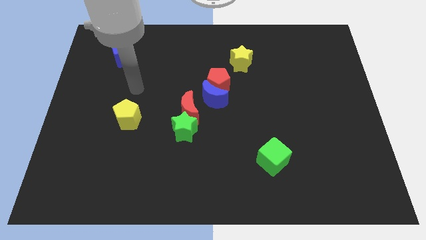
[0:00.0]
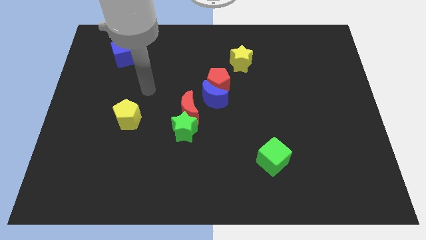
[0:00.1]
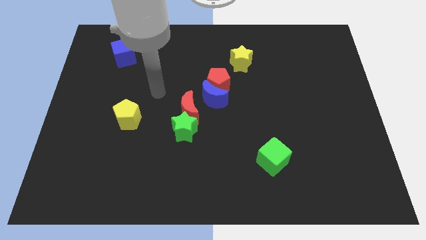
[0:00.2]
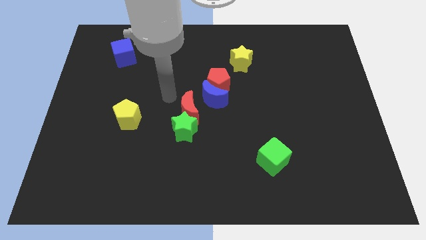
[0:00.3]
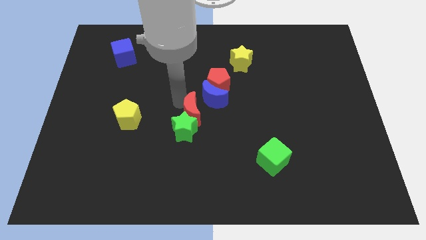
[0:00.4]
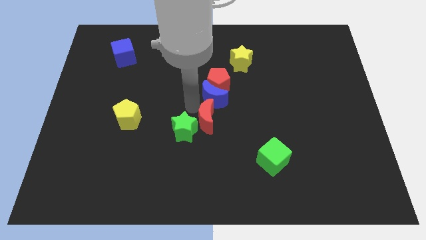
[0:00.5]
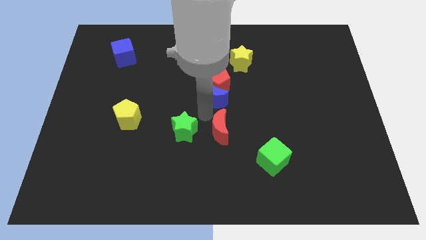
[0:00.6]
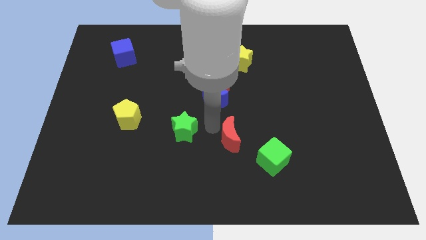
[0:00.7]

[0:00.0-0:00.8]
pull the green star apart from the red moon

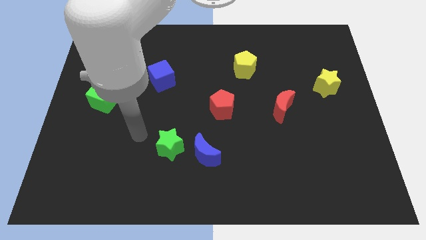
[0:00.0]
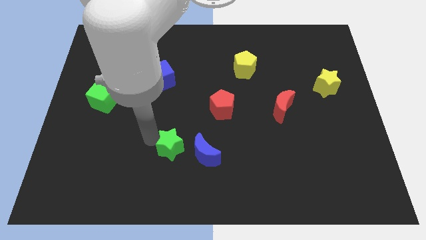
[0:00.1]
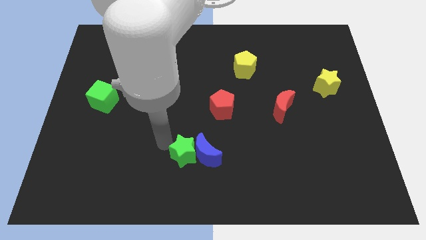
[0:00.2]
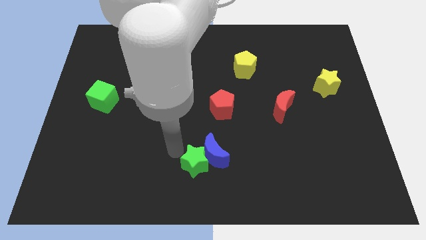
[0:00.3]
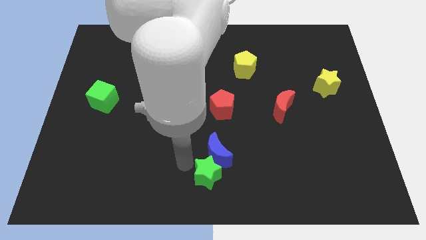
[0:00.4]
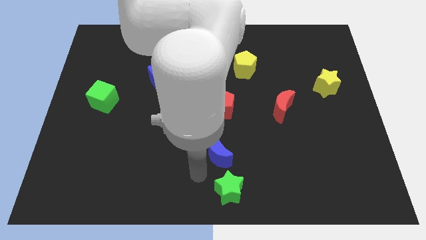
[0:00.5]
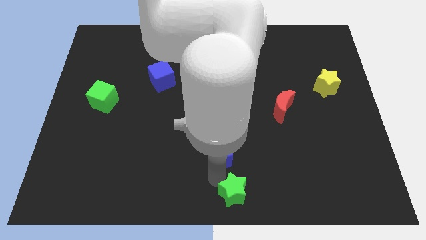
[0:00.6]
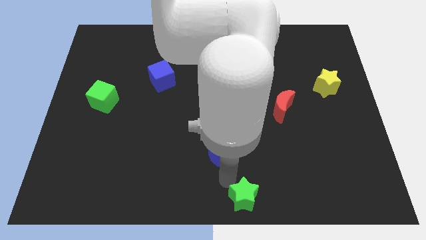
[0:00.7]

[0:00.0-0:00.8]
pull the blue moon apart from the green star

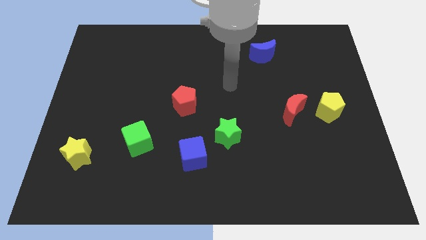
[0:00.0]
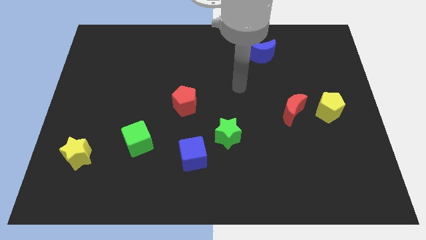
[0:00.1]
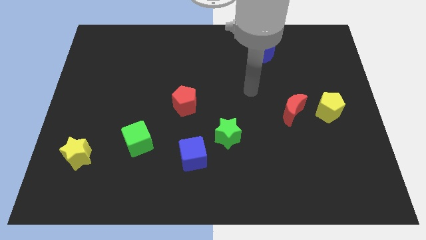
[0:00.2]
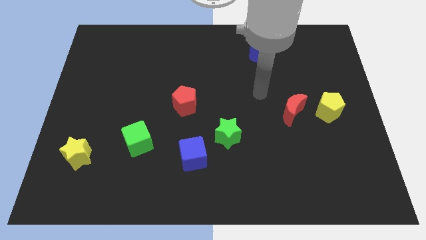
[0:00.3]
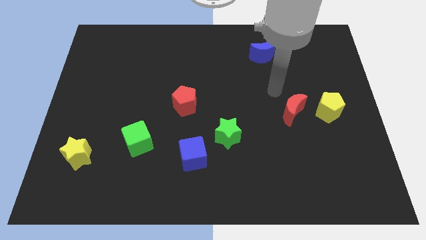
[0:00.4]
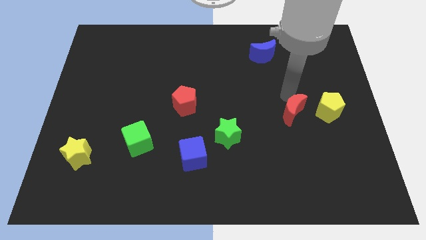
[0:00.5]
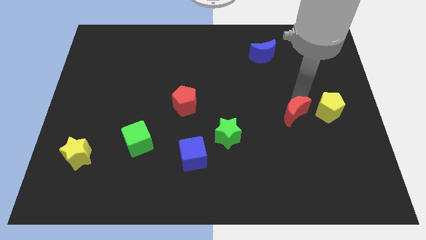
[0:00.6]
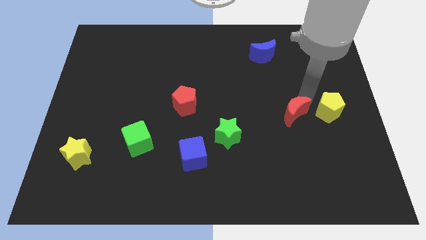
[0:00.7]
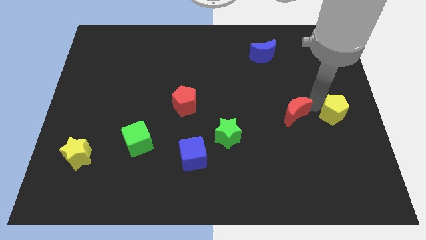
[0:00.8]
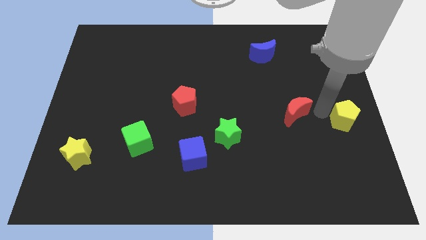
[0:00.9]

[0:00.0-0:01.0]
move the red moon away from the yellow pentagon

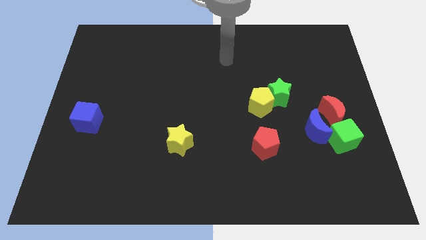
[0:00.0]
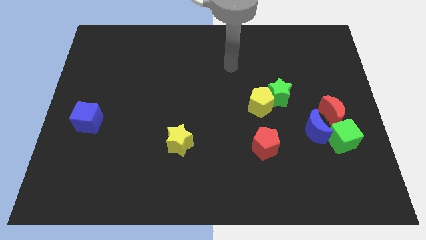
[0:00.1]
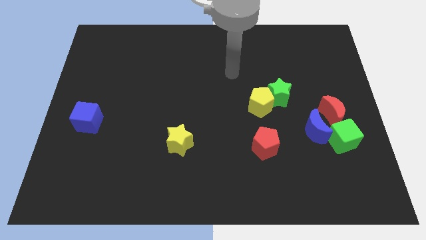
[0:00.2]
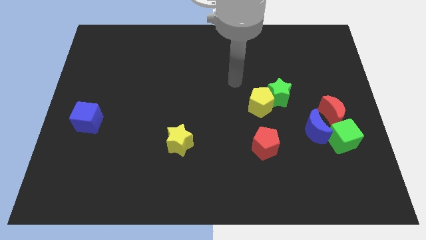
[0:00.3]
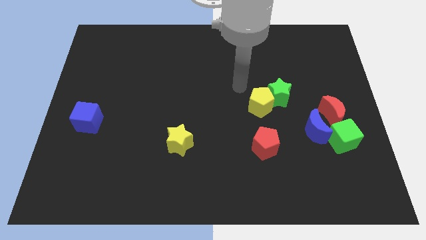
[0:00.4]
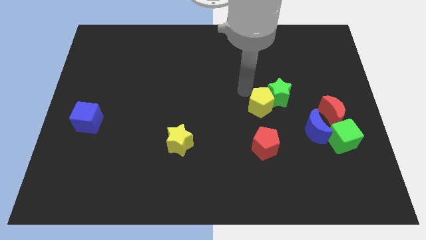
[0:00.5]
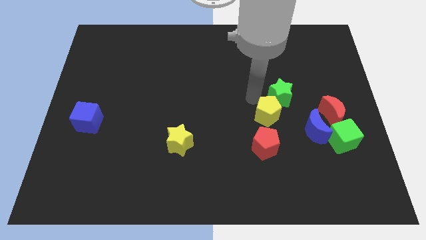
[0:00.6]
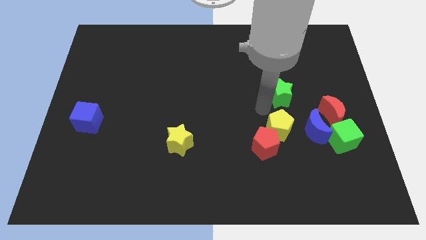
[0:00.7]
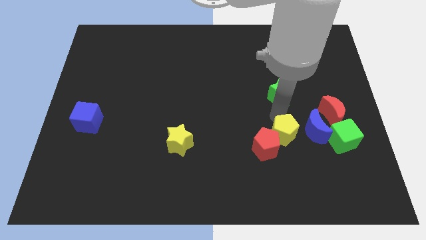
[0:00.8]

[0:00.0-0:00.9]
separate the green star from the yellow pentagon

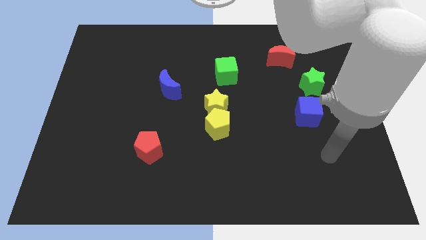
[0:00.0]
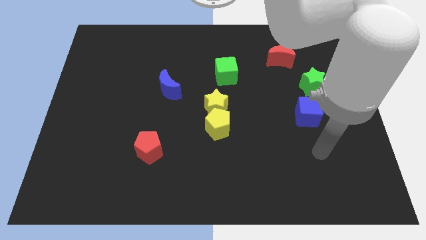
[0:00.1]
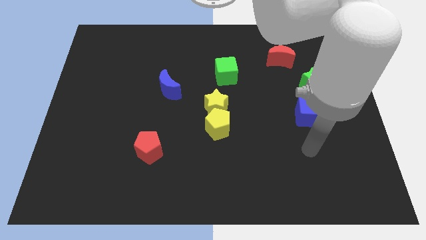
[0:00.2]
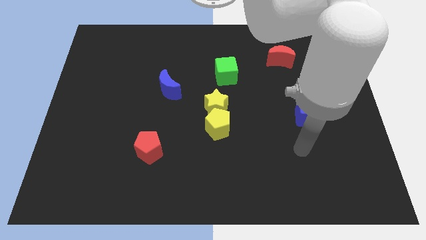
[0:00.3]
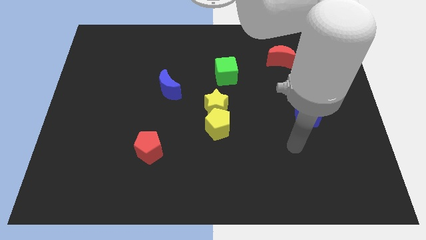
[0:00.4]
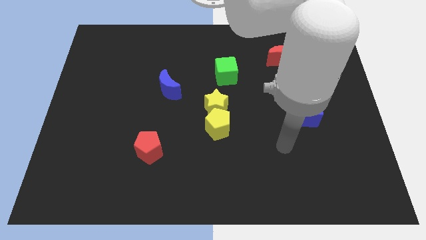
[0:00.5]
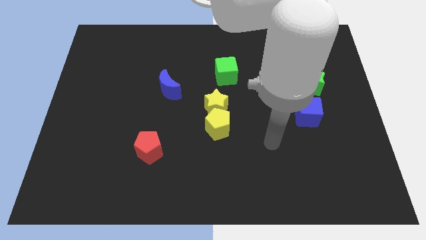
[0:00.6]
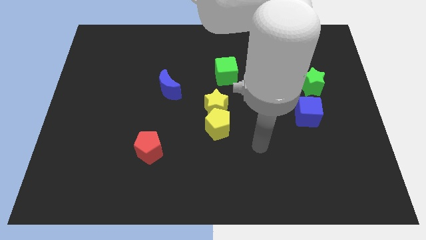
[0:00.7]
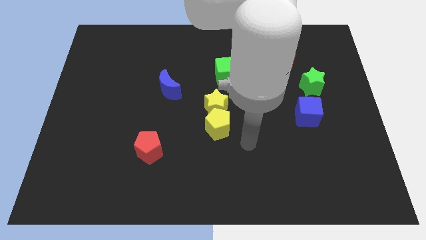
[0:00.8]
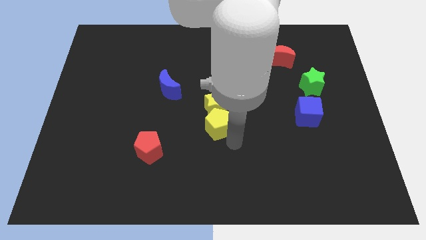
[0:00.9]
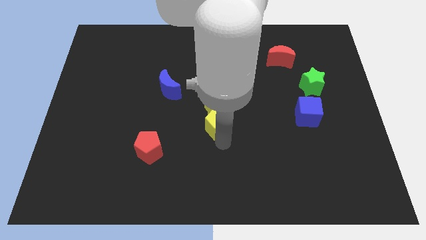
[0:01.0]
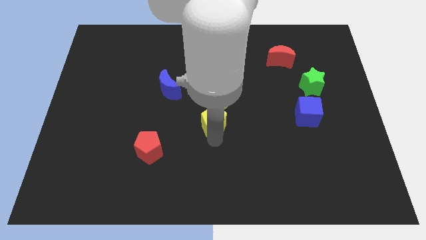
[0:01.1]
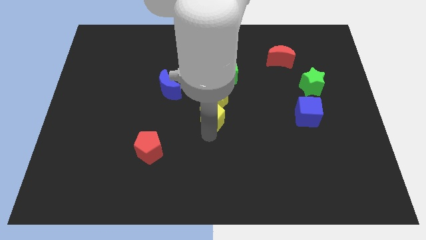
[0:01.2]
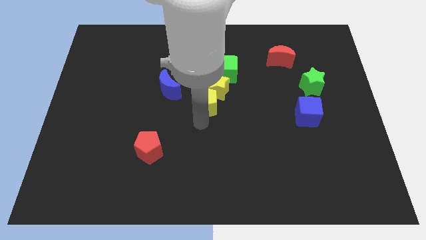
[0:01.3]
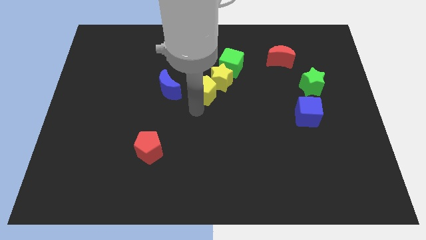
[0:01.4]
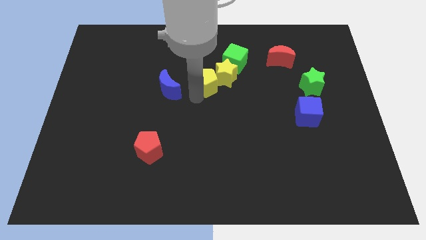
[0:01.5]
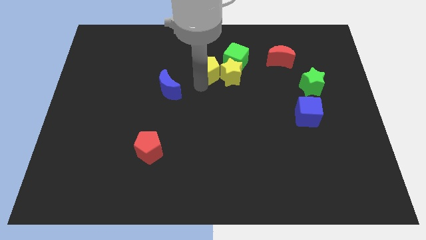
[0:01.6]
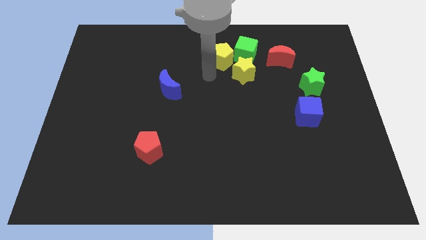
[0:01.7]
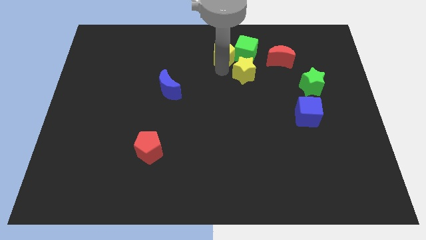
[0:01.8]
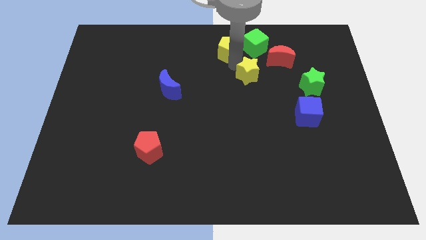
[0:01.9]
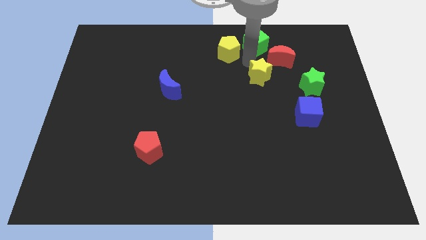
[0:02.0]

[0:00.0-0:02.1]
move the yellow star away from the yellow pentagon

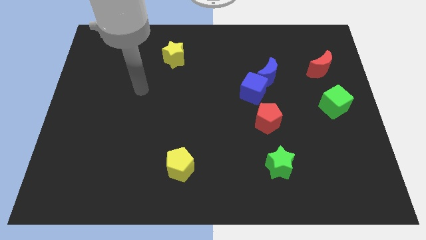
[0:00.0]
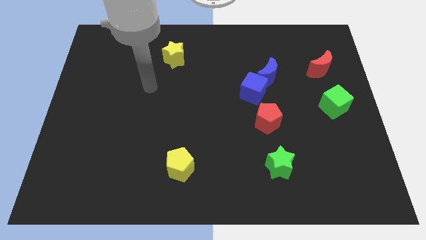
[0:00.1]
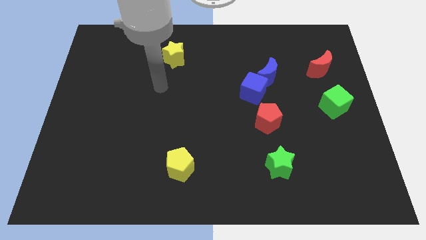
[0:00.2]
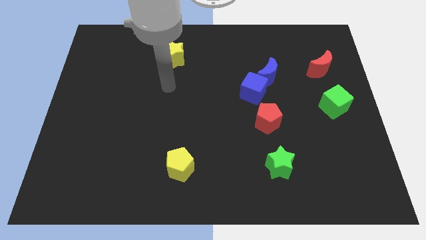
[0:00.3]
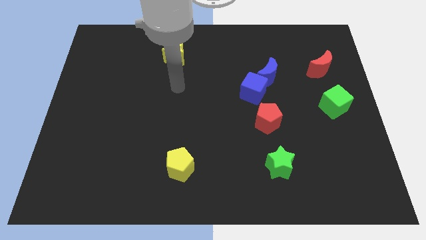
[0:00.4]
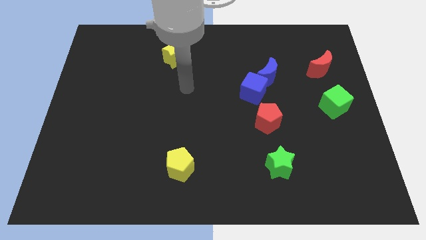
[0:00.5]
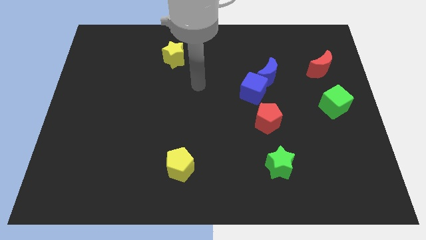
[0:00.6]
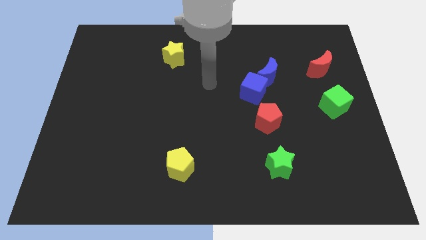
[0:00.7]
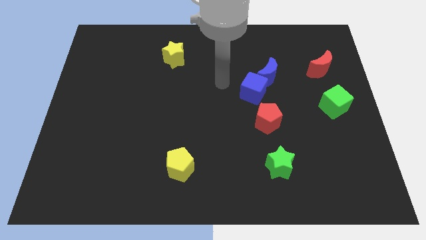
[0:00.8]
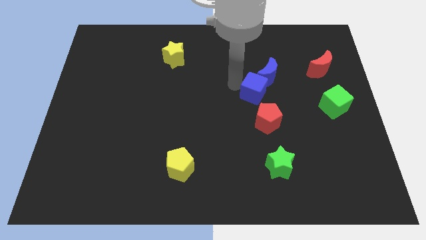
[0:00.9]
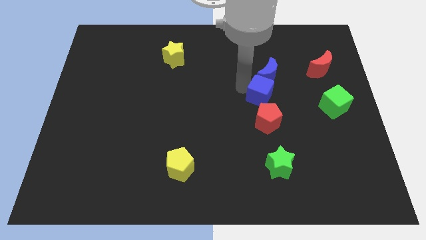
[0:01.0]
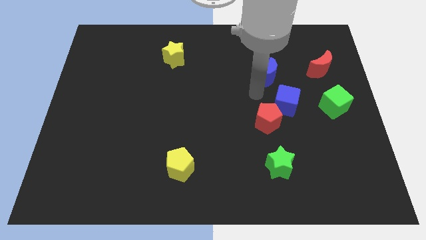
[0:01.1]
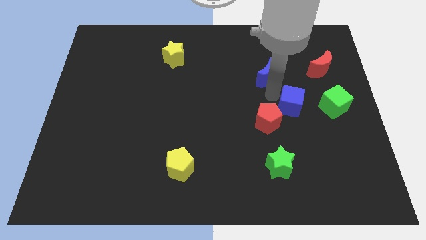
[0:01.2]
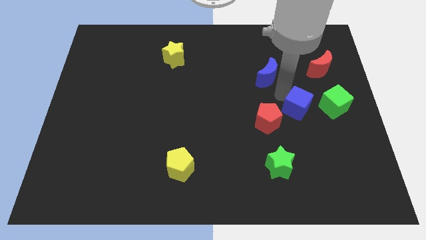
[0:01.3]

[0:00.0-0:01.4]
pull the blue moon apart from the blue cube

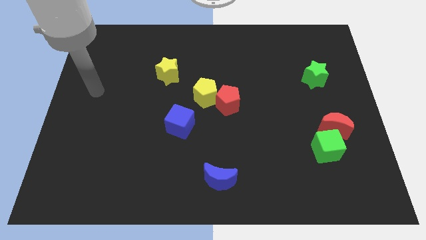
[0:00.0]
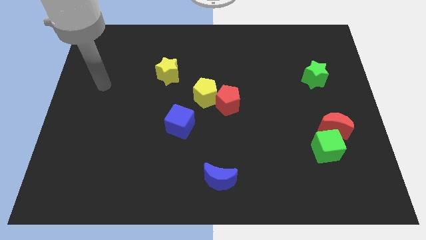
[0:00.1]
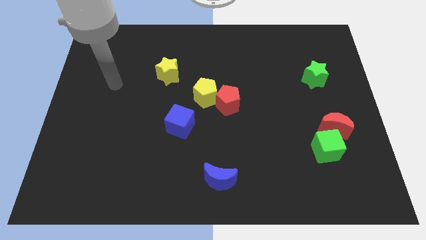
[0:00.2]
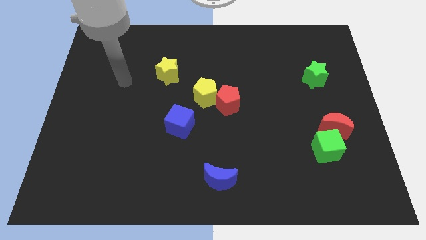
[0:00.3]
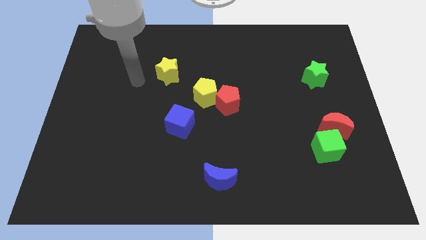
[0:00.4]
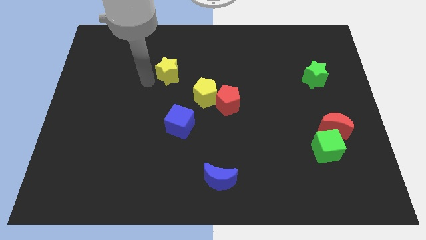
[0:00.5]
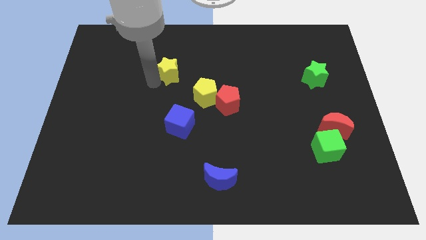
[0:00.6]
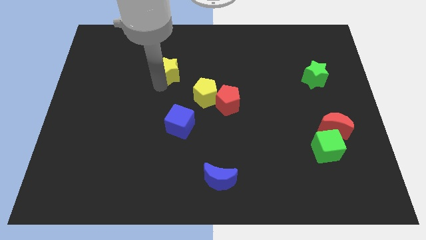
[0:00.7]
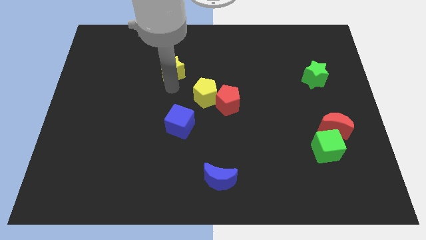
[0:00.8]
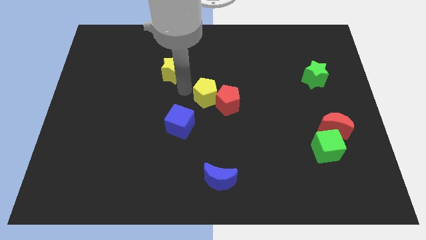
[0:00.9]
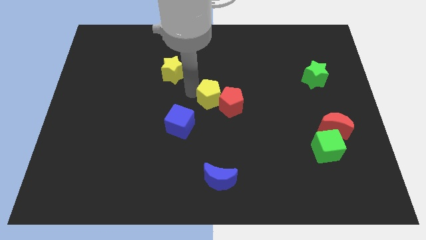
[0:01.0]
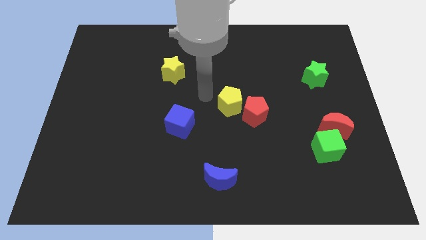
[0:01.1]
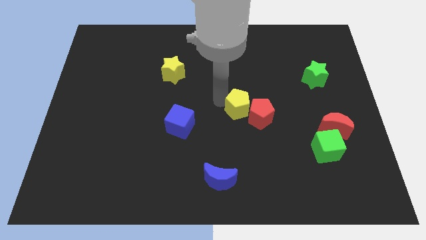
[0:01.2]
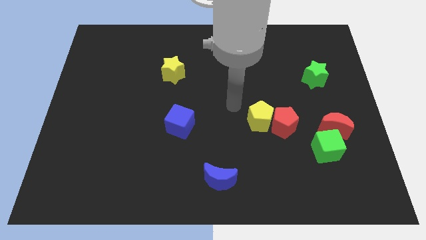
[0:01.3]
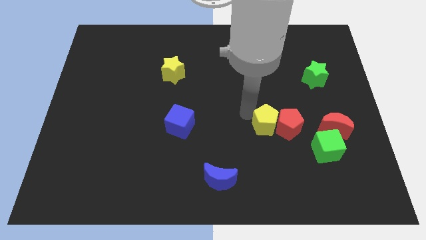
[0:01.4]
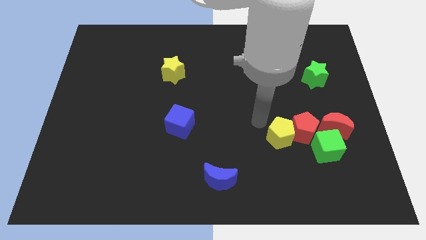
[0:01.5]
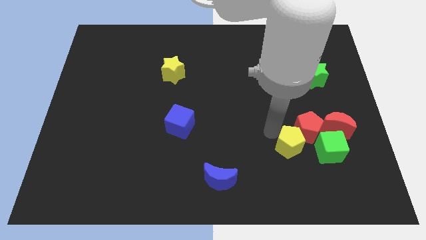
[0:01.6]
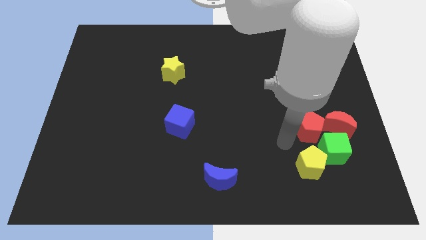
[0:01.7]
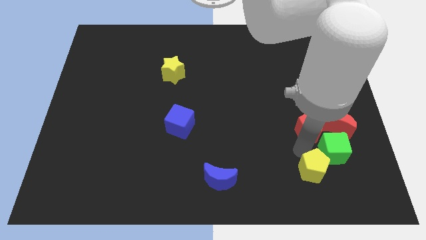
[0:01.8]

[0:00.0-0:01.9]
pull the red pentagon apart from the yellow pentagon

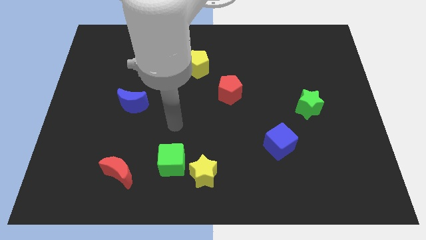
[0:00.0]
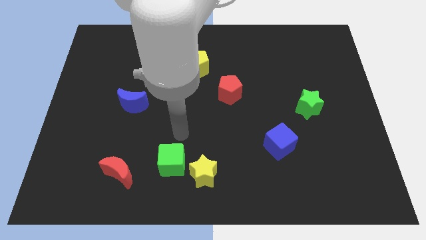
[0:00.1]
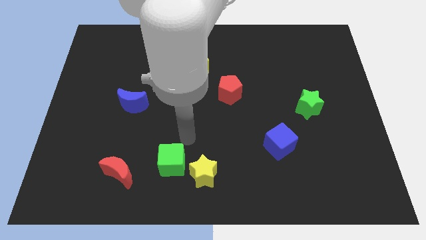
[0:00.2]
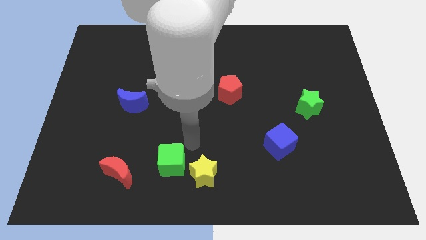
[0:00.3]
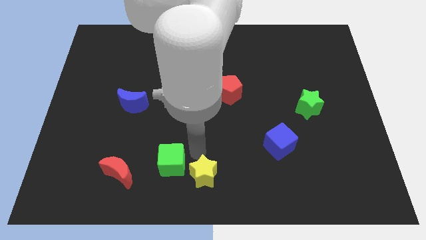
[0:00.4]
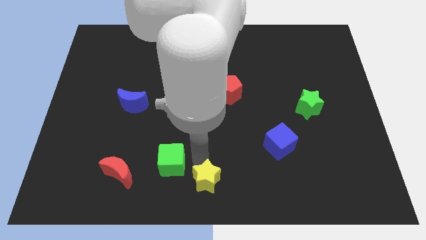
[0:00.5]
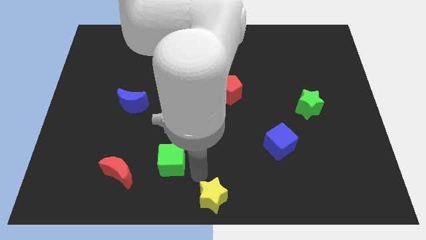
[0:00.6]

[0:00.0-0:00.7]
move the green cube away from the yellow star
